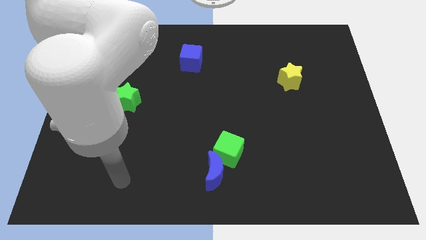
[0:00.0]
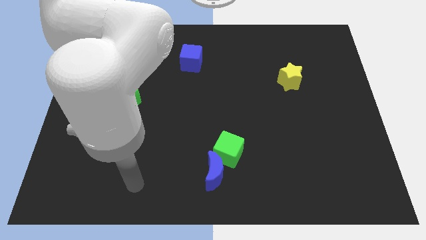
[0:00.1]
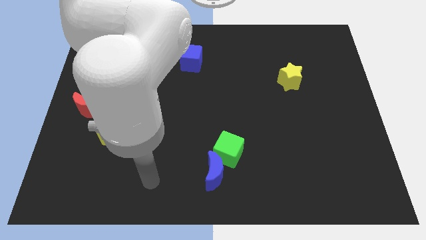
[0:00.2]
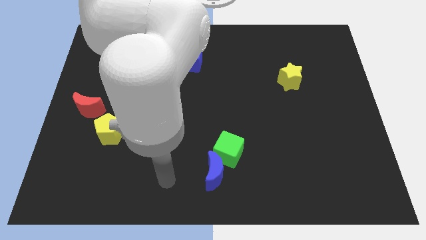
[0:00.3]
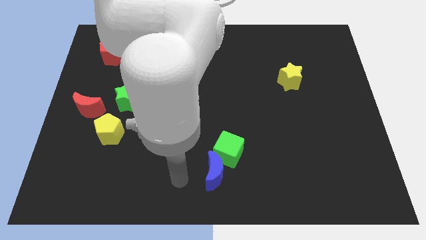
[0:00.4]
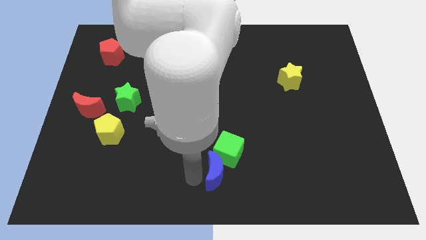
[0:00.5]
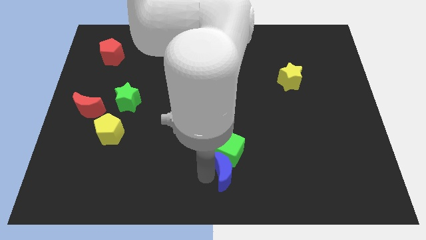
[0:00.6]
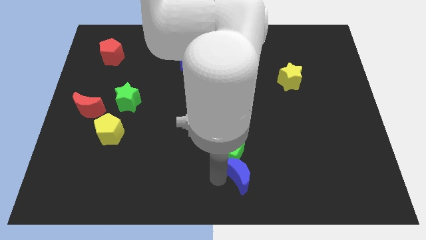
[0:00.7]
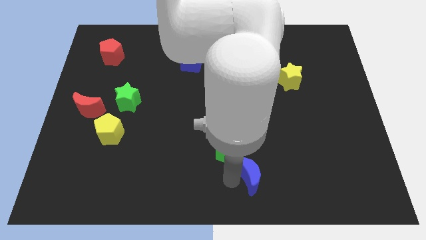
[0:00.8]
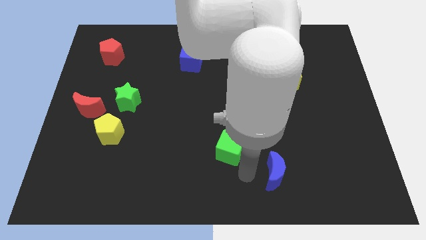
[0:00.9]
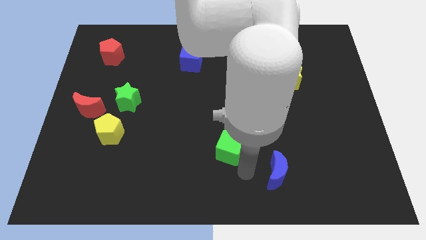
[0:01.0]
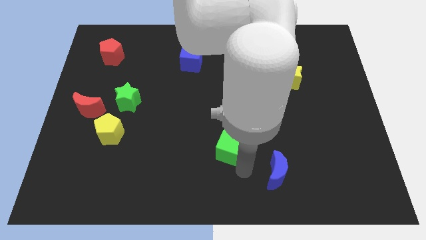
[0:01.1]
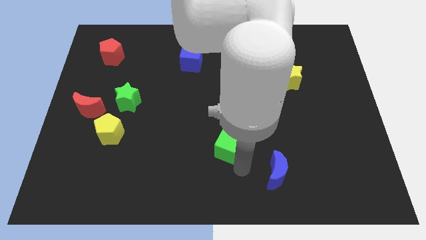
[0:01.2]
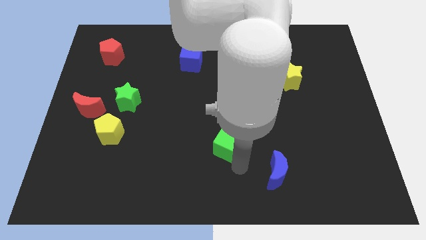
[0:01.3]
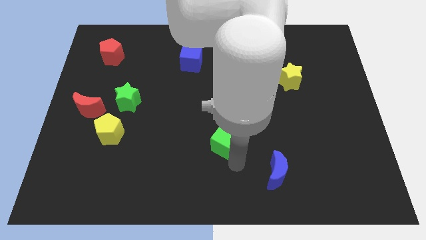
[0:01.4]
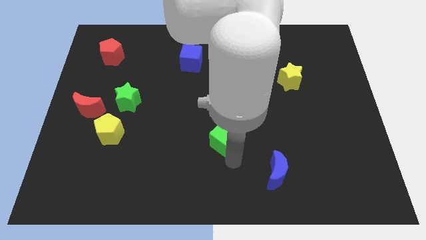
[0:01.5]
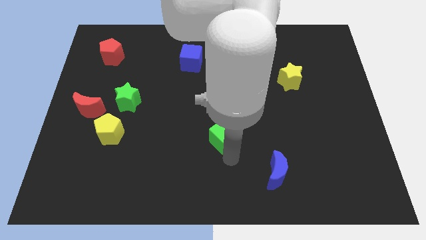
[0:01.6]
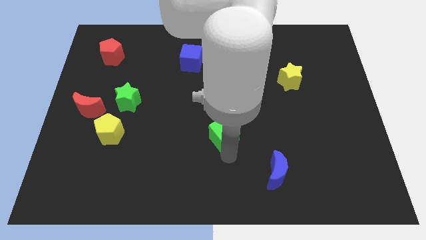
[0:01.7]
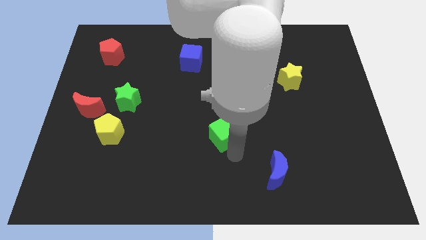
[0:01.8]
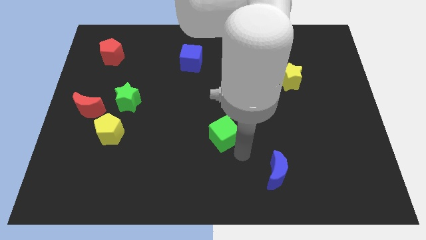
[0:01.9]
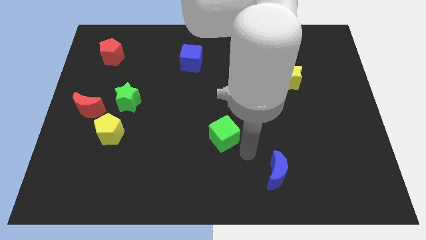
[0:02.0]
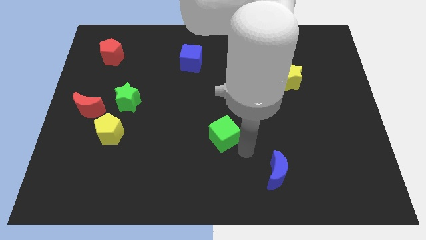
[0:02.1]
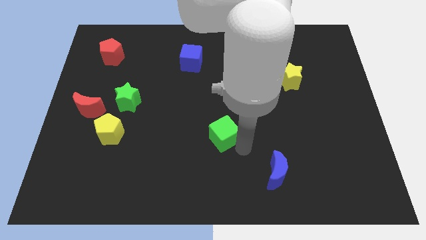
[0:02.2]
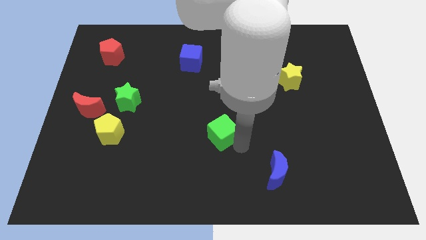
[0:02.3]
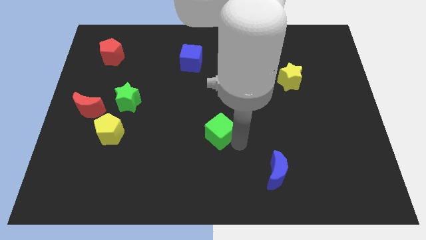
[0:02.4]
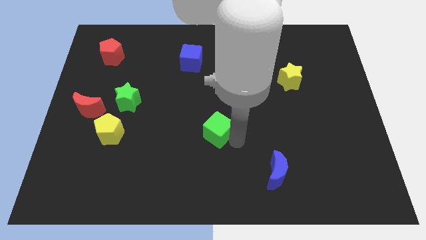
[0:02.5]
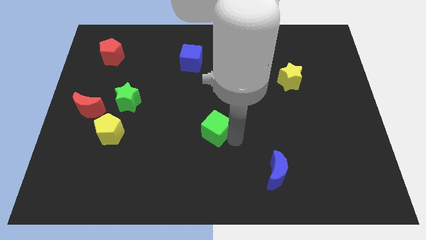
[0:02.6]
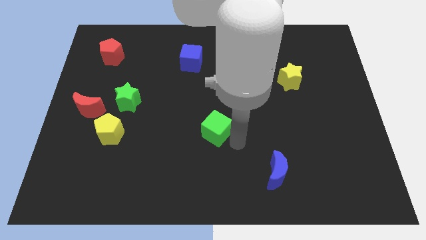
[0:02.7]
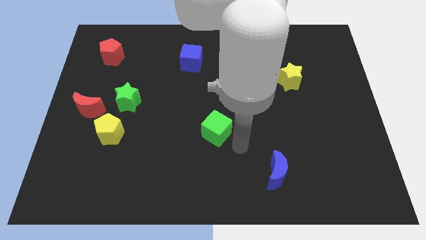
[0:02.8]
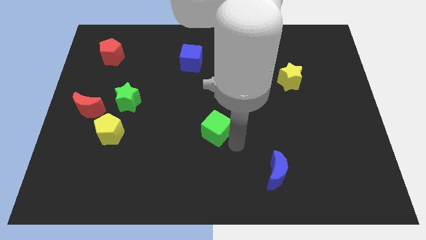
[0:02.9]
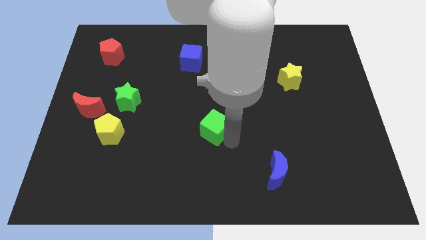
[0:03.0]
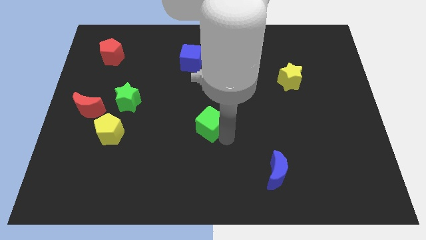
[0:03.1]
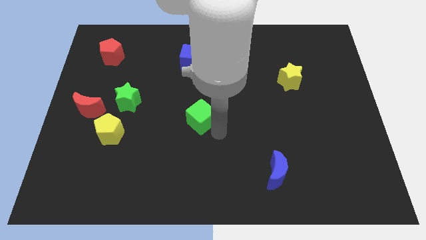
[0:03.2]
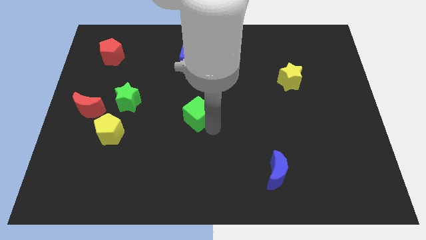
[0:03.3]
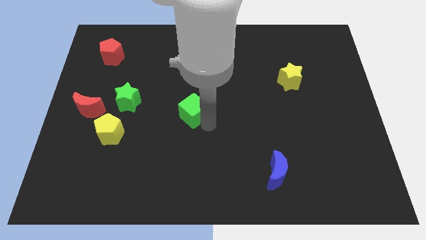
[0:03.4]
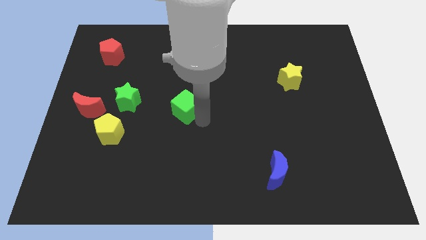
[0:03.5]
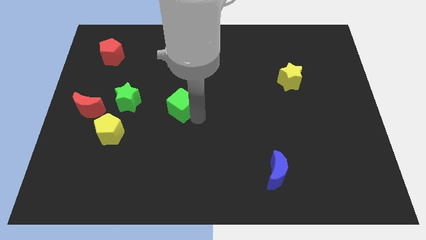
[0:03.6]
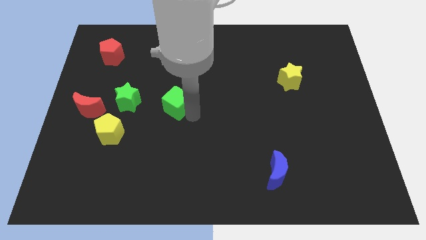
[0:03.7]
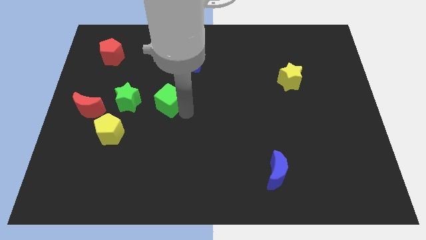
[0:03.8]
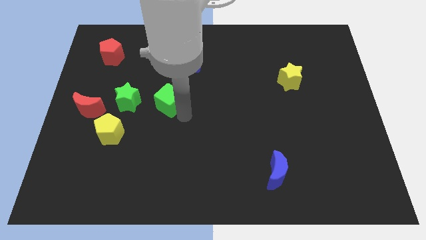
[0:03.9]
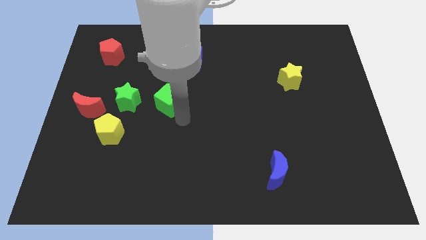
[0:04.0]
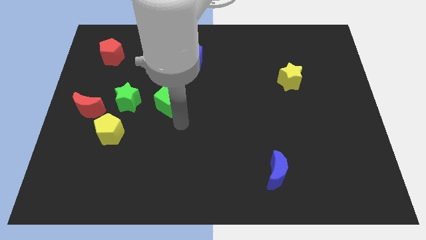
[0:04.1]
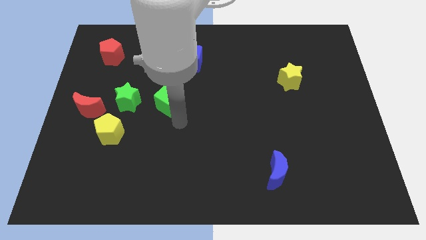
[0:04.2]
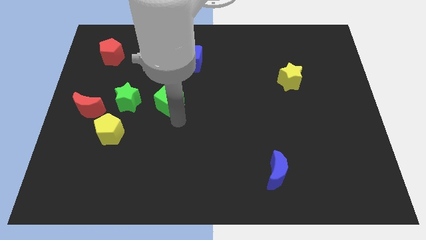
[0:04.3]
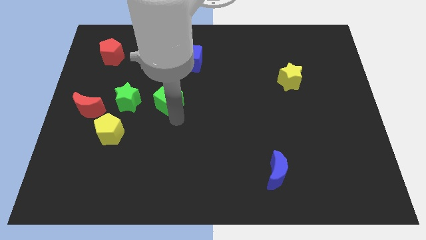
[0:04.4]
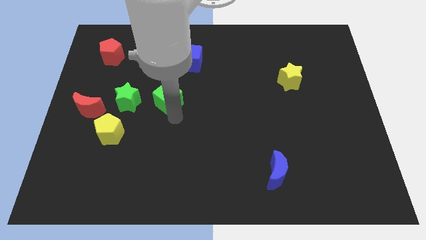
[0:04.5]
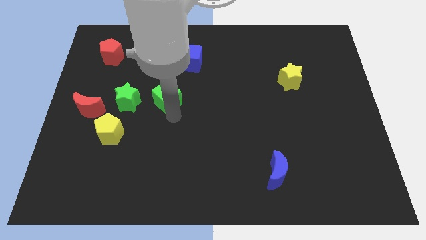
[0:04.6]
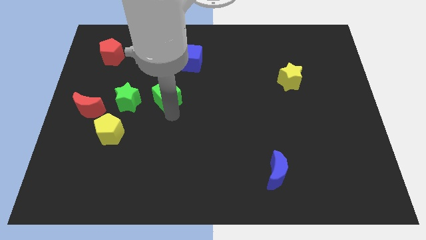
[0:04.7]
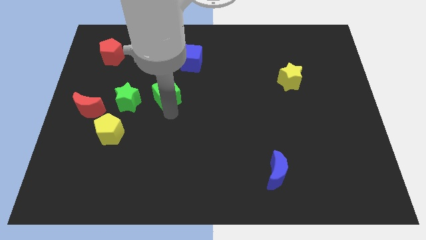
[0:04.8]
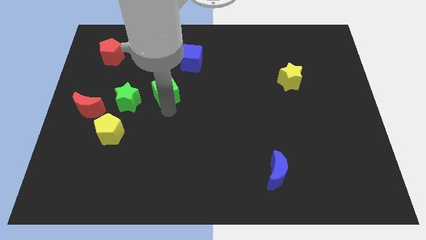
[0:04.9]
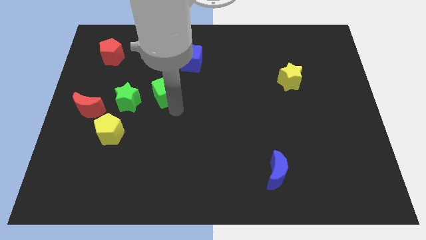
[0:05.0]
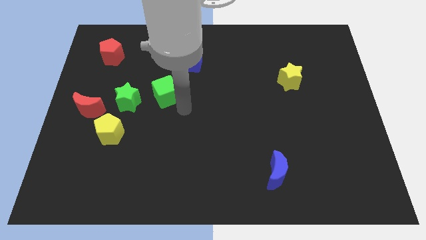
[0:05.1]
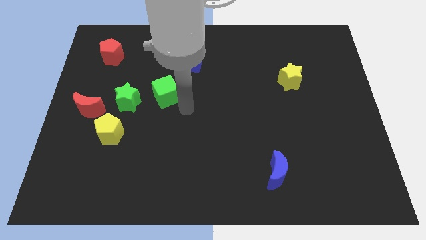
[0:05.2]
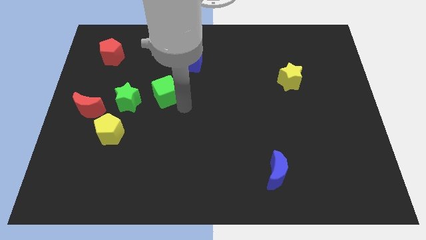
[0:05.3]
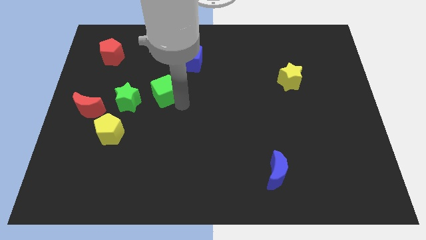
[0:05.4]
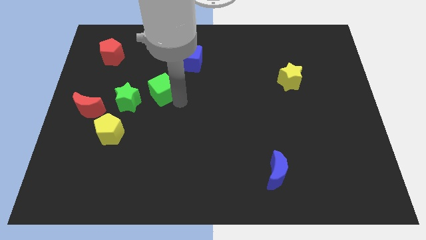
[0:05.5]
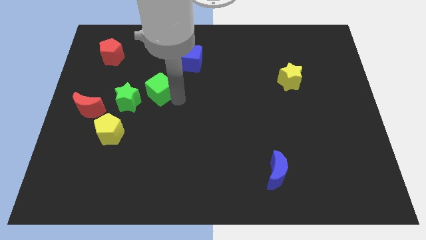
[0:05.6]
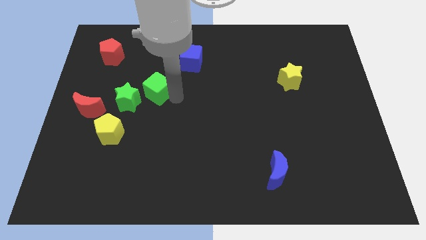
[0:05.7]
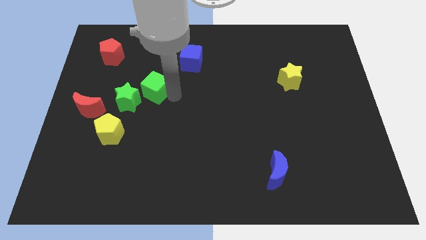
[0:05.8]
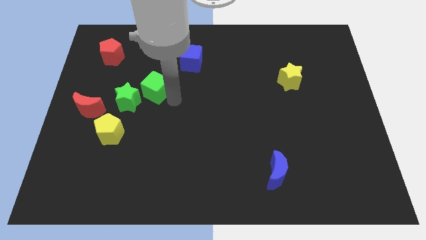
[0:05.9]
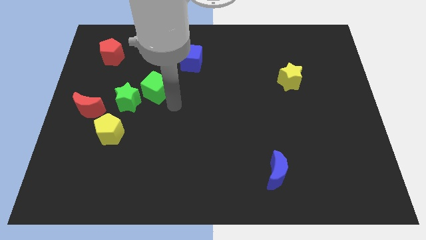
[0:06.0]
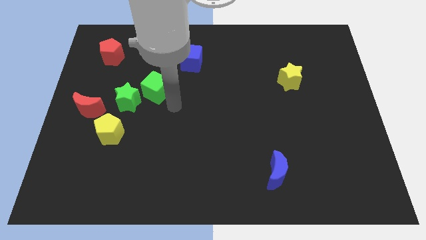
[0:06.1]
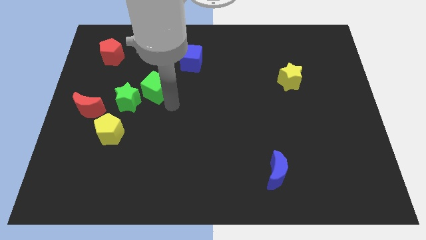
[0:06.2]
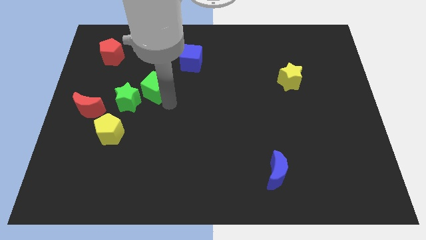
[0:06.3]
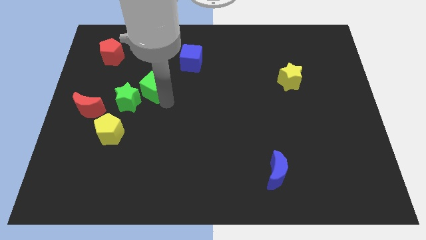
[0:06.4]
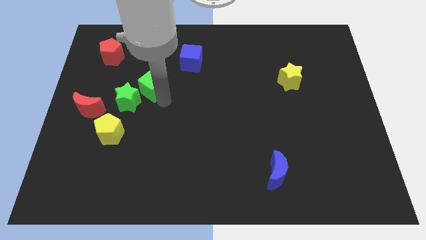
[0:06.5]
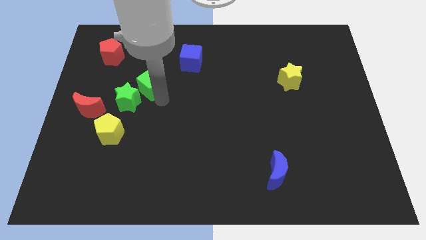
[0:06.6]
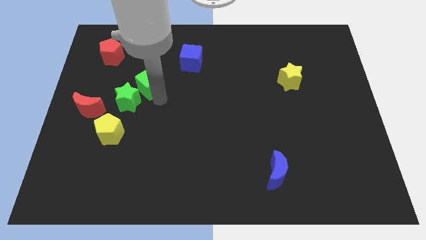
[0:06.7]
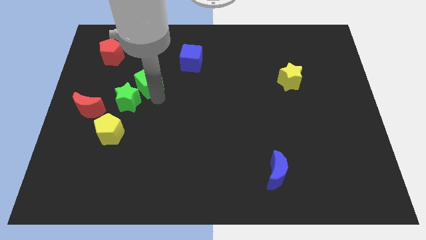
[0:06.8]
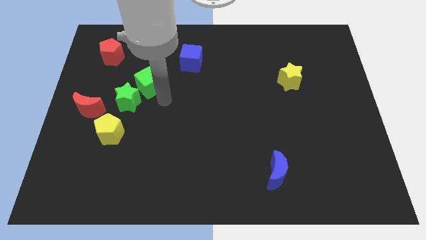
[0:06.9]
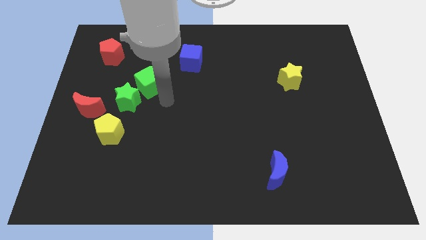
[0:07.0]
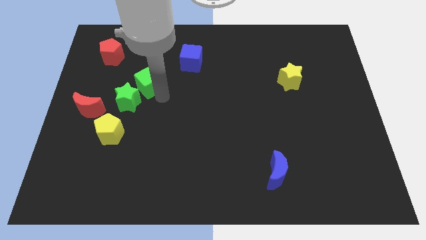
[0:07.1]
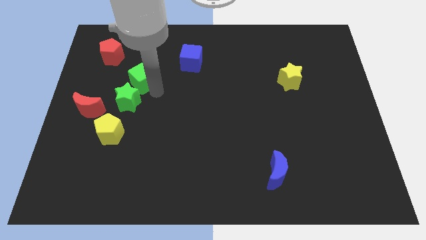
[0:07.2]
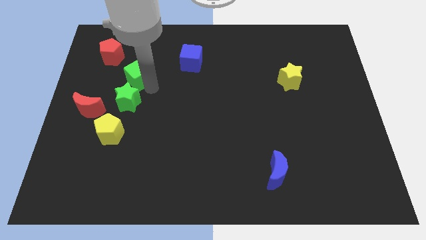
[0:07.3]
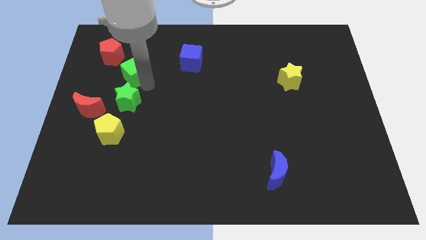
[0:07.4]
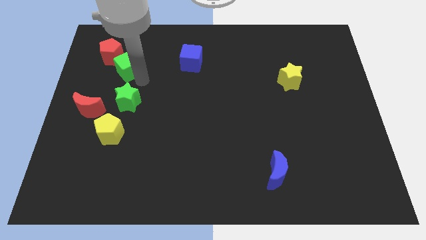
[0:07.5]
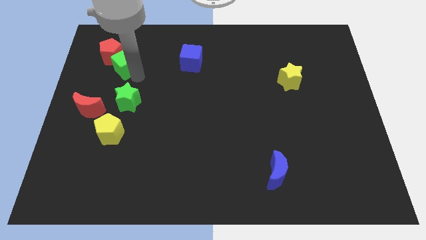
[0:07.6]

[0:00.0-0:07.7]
put the green cube to the red pentagon
